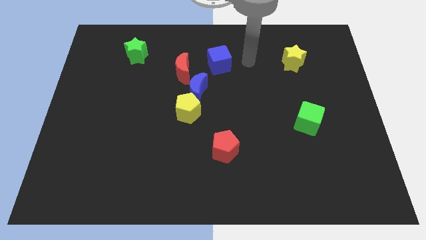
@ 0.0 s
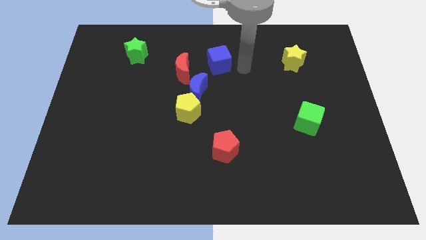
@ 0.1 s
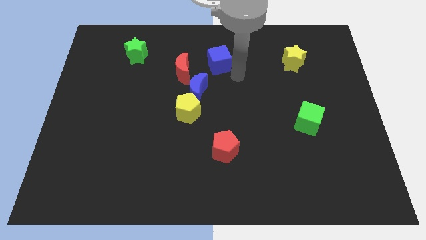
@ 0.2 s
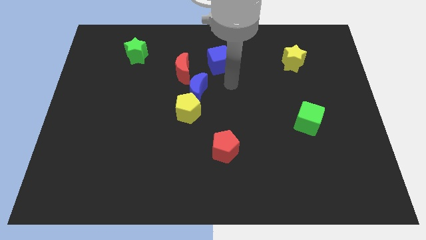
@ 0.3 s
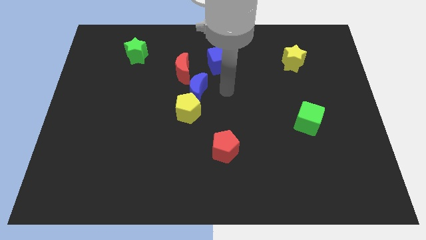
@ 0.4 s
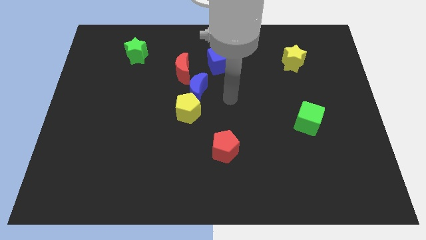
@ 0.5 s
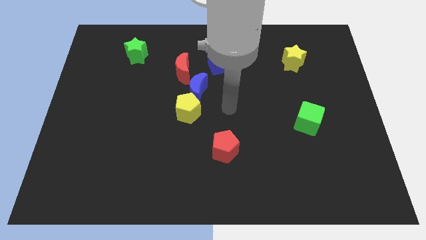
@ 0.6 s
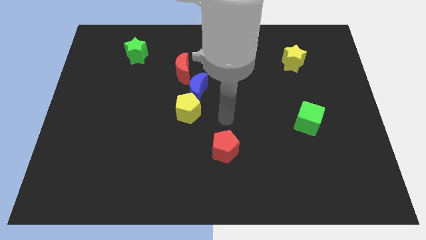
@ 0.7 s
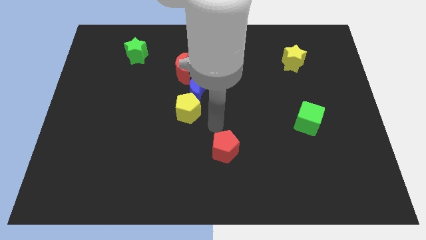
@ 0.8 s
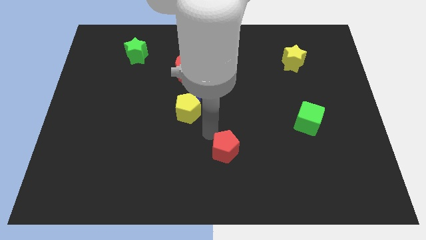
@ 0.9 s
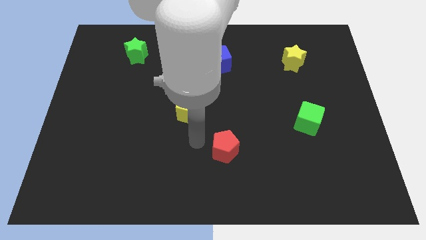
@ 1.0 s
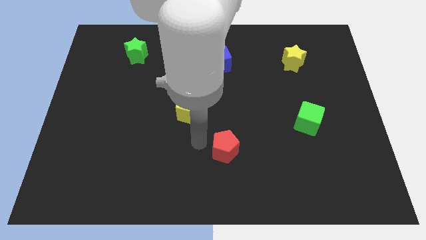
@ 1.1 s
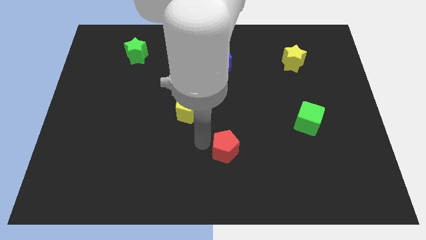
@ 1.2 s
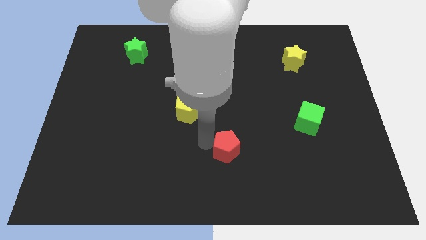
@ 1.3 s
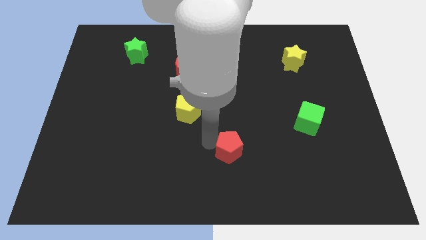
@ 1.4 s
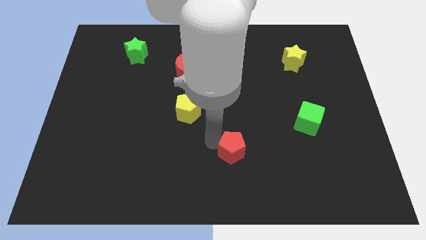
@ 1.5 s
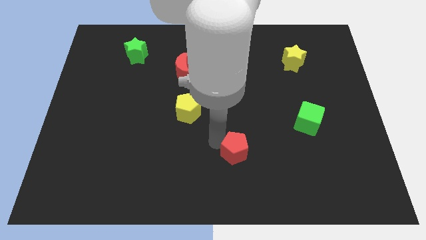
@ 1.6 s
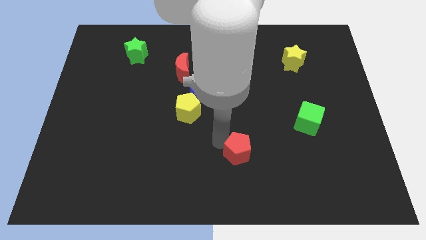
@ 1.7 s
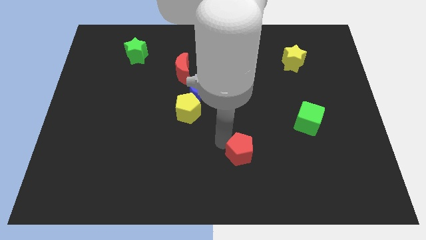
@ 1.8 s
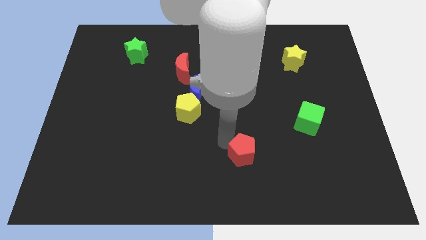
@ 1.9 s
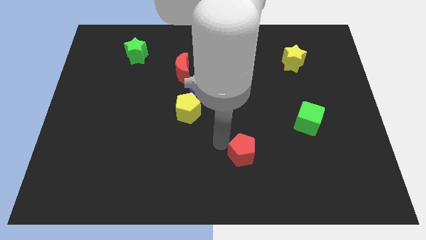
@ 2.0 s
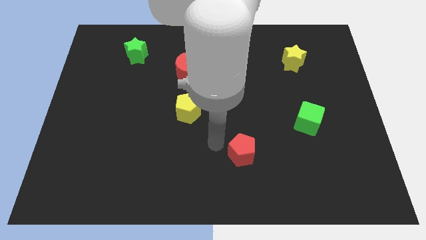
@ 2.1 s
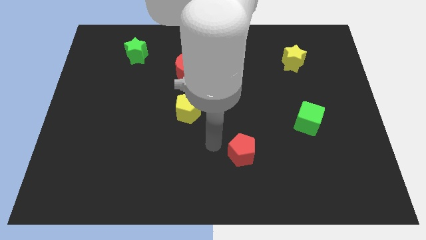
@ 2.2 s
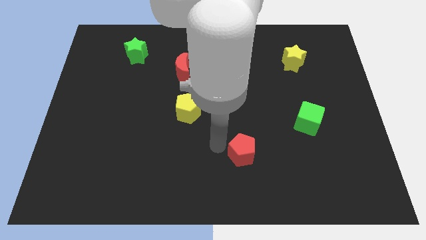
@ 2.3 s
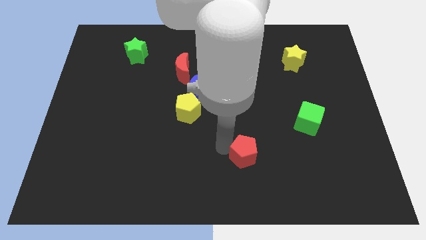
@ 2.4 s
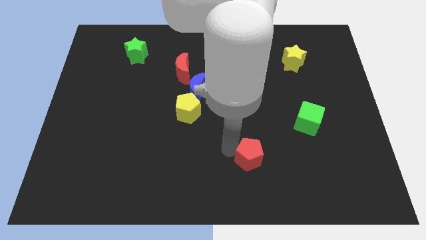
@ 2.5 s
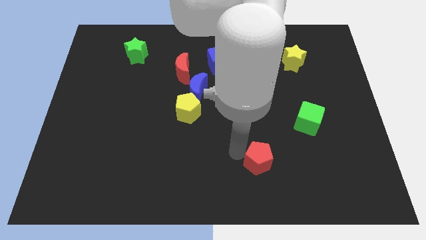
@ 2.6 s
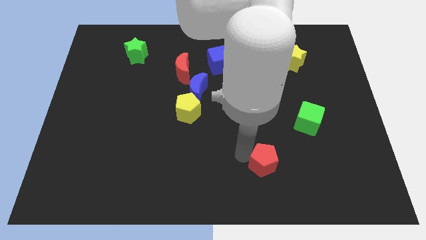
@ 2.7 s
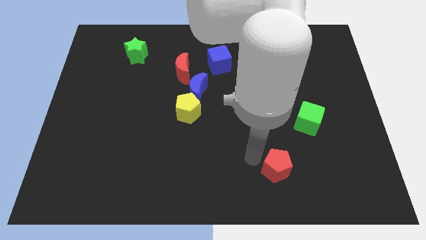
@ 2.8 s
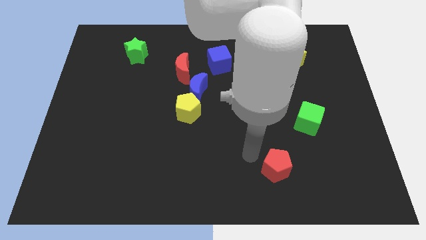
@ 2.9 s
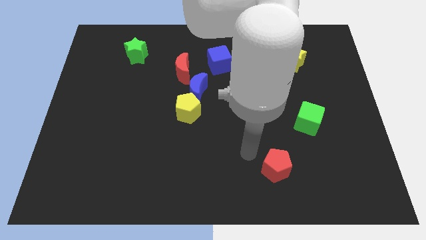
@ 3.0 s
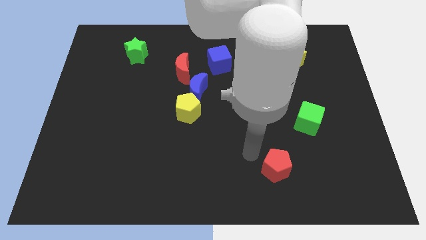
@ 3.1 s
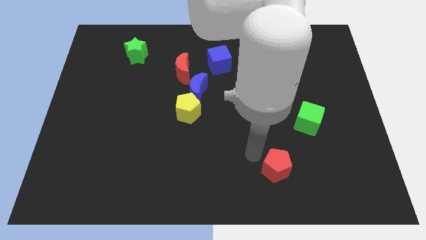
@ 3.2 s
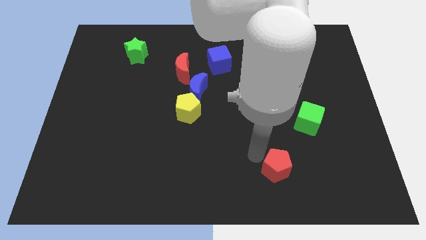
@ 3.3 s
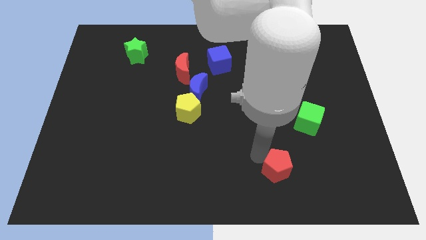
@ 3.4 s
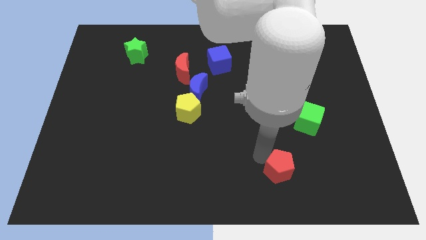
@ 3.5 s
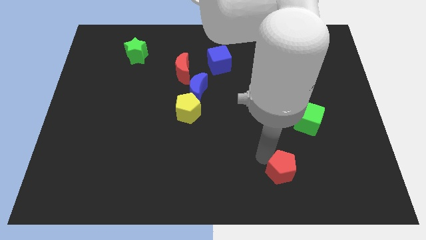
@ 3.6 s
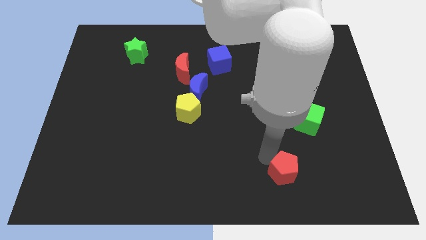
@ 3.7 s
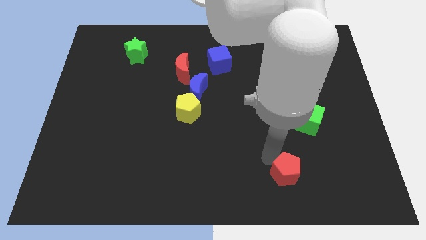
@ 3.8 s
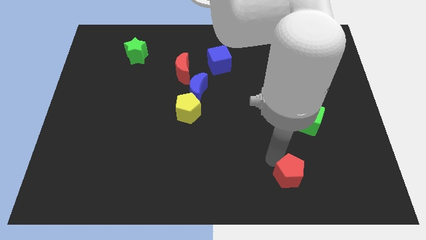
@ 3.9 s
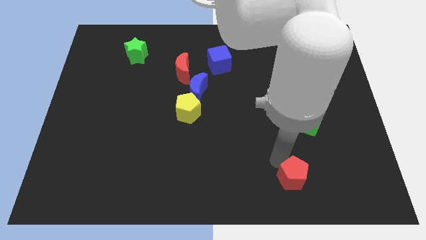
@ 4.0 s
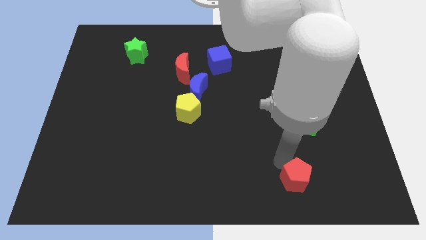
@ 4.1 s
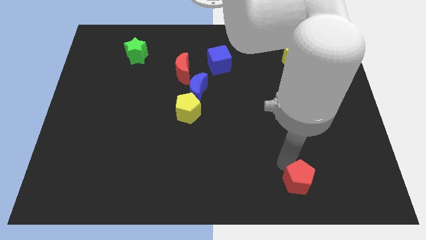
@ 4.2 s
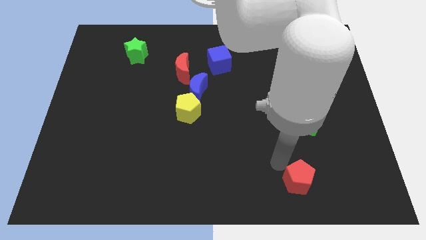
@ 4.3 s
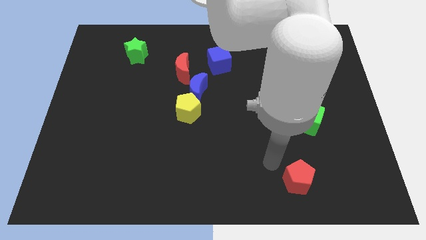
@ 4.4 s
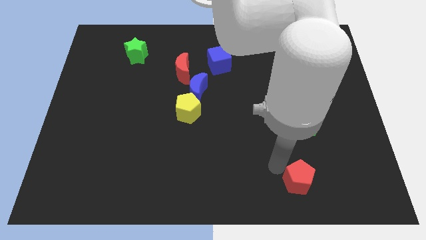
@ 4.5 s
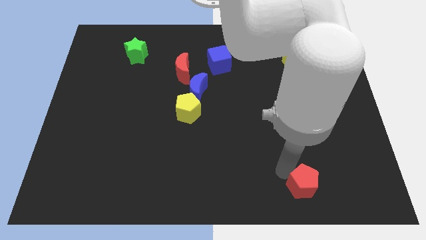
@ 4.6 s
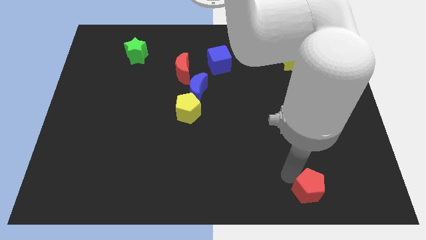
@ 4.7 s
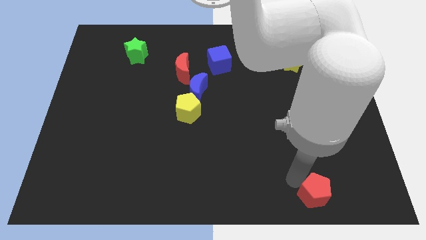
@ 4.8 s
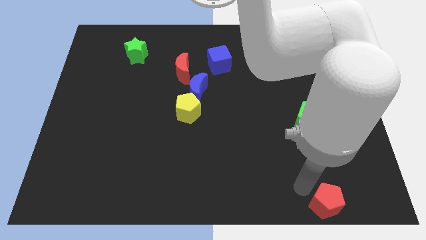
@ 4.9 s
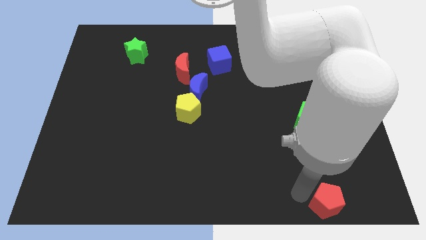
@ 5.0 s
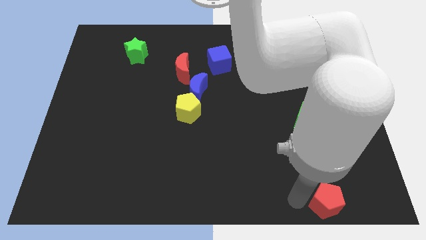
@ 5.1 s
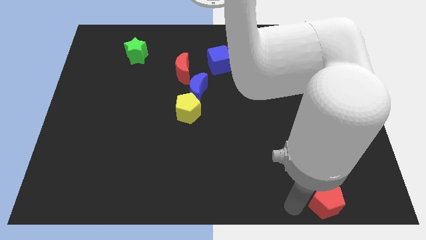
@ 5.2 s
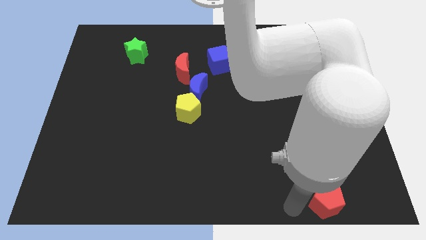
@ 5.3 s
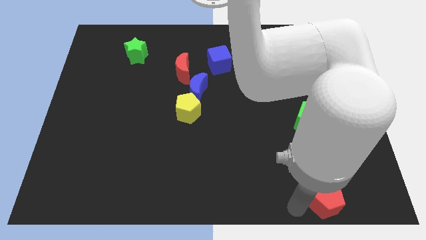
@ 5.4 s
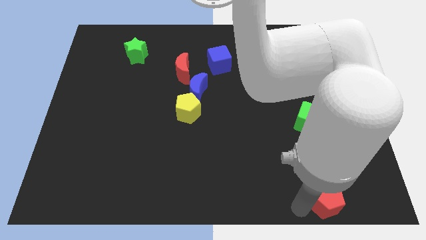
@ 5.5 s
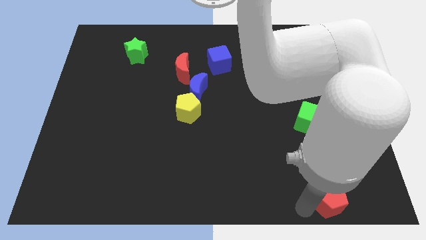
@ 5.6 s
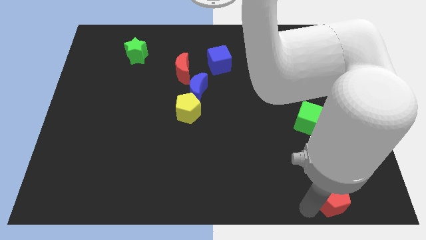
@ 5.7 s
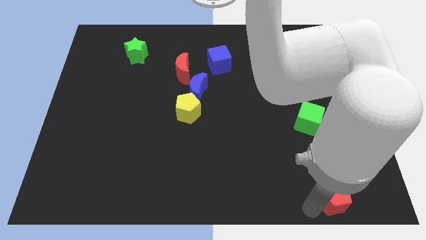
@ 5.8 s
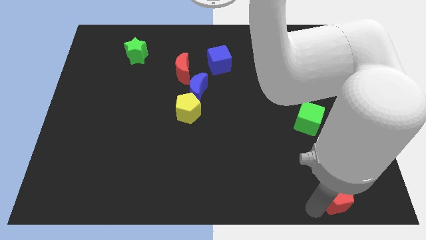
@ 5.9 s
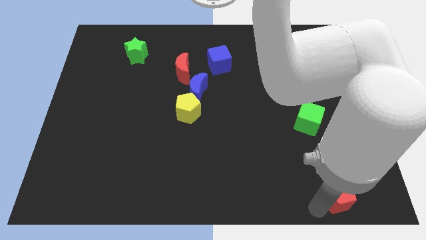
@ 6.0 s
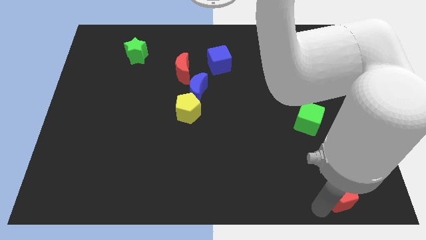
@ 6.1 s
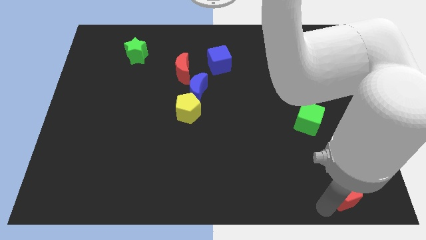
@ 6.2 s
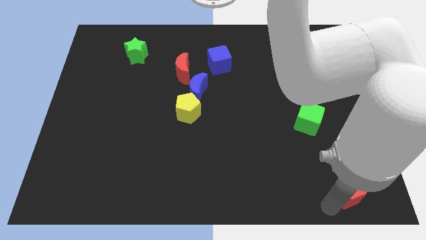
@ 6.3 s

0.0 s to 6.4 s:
push the red pentagon to the bottom right
